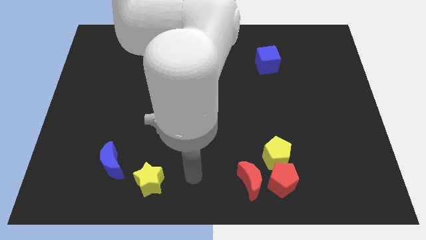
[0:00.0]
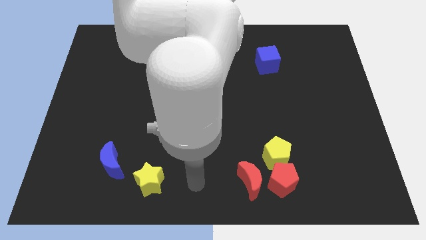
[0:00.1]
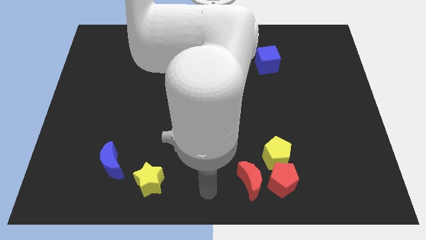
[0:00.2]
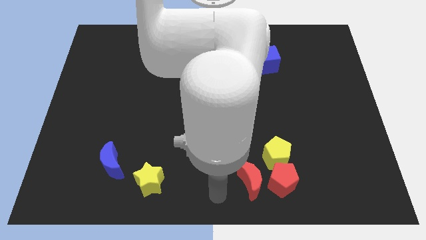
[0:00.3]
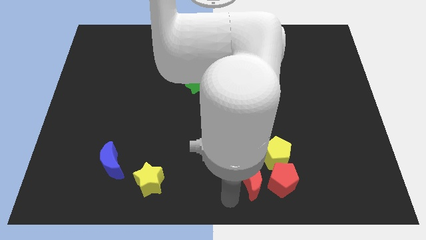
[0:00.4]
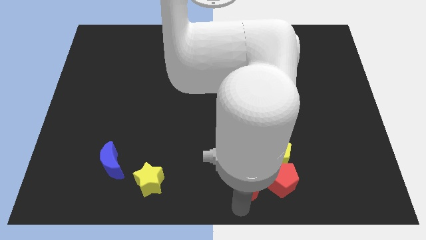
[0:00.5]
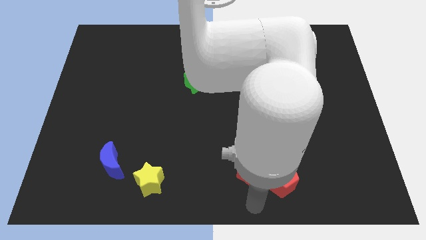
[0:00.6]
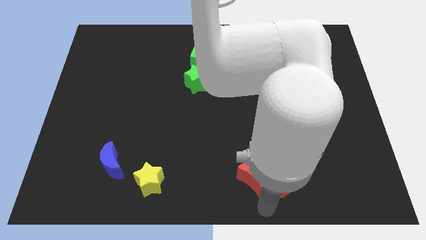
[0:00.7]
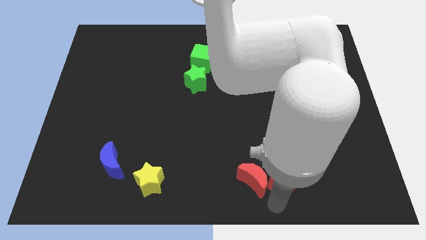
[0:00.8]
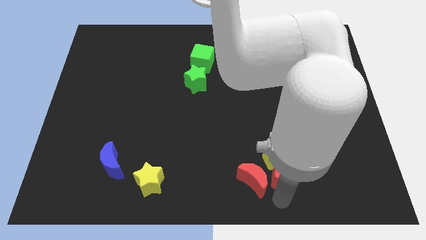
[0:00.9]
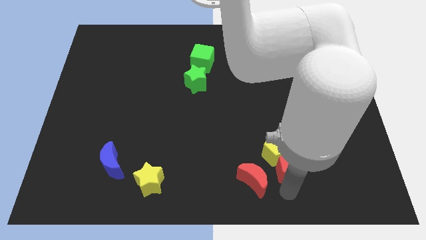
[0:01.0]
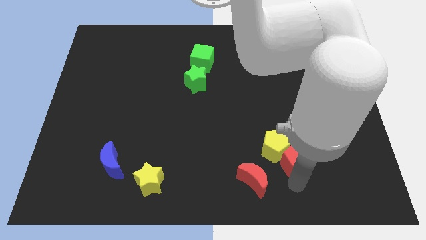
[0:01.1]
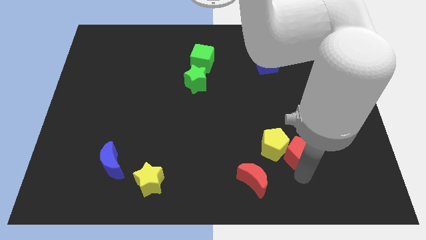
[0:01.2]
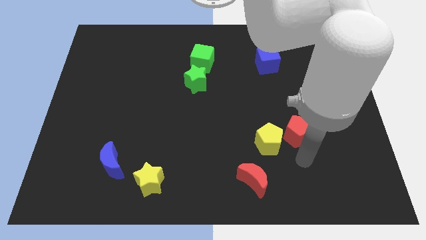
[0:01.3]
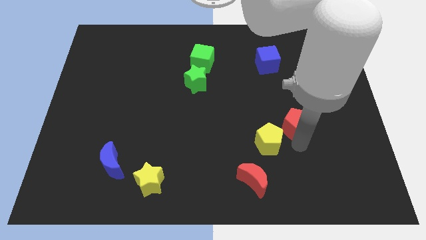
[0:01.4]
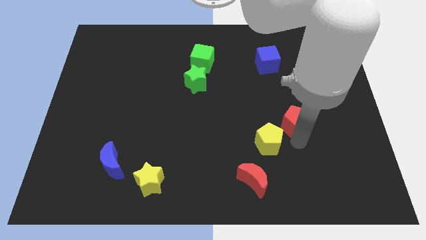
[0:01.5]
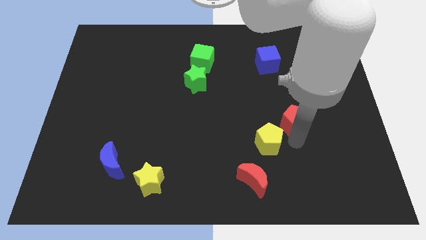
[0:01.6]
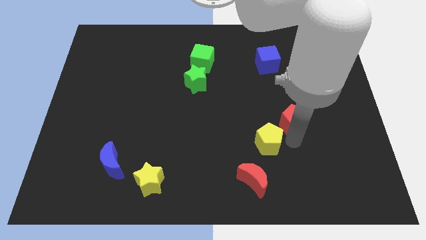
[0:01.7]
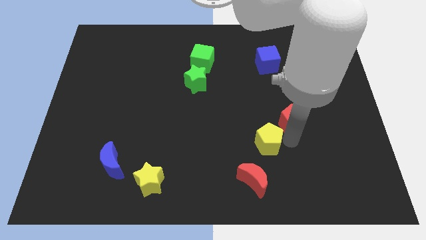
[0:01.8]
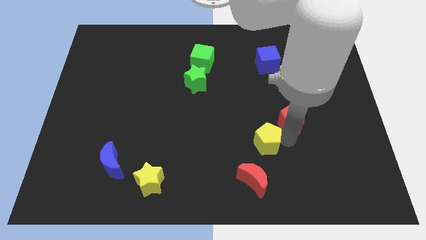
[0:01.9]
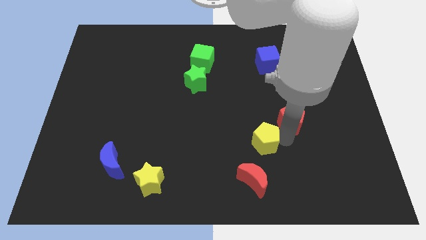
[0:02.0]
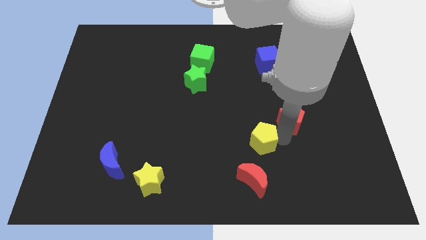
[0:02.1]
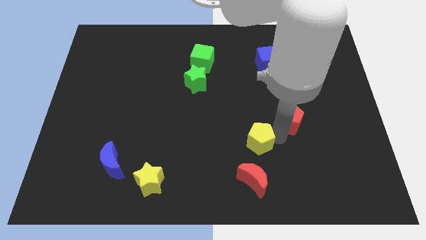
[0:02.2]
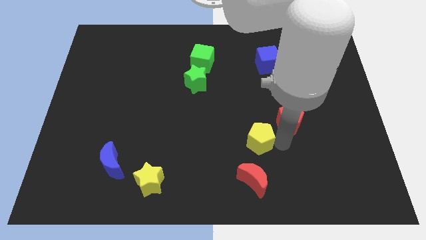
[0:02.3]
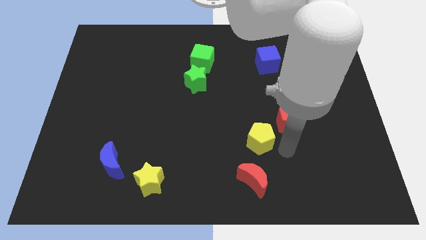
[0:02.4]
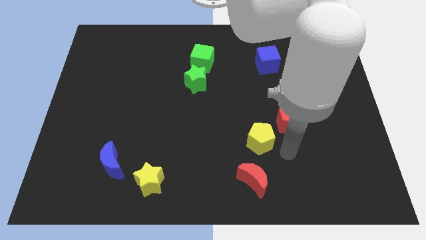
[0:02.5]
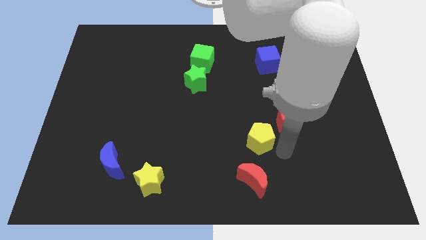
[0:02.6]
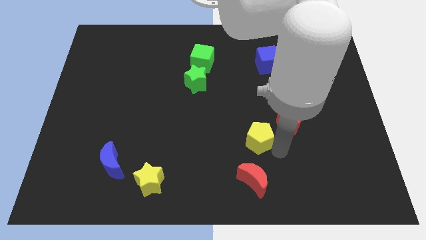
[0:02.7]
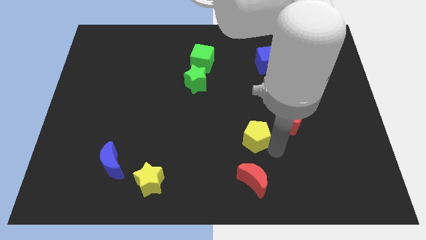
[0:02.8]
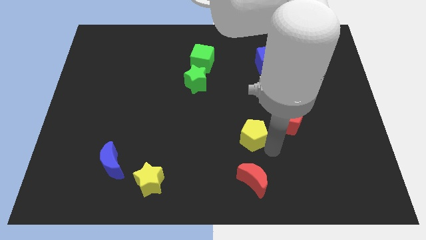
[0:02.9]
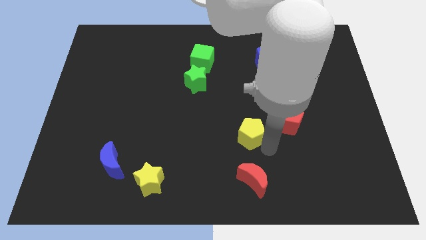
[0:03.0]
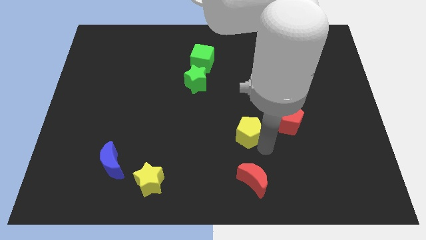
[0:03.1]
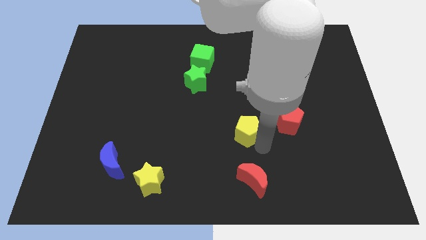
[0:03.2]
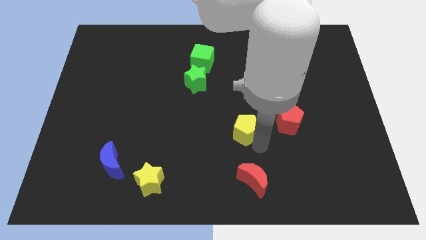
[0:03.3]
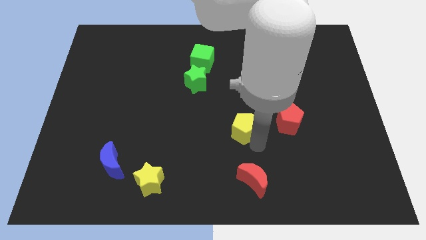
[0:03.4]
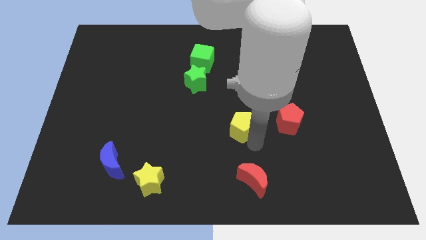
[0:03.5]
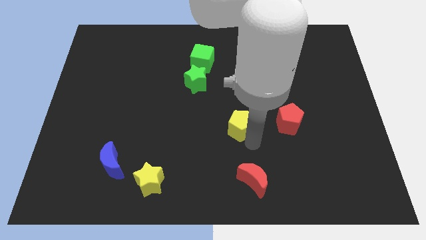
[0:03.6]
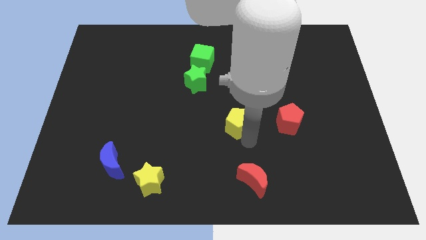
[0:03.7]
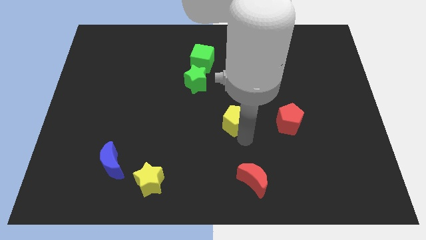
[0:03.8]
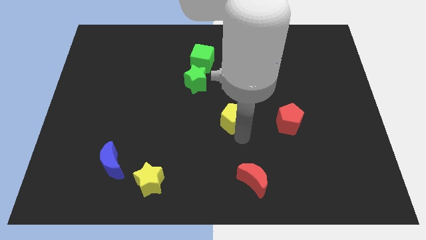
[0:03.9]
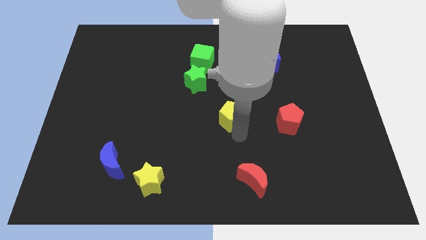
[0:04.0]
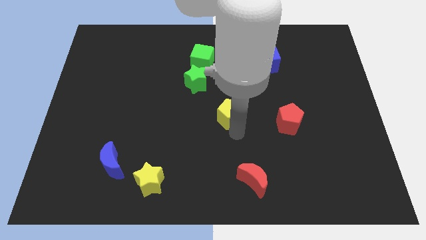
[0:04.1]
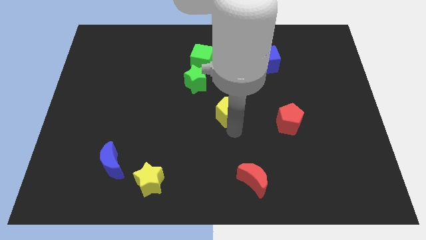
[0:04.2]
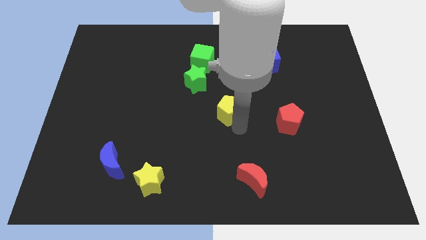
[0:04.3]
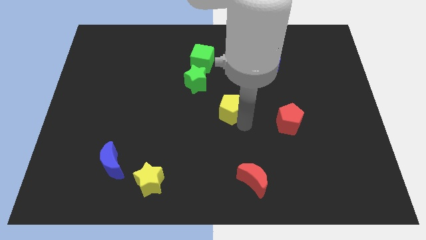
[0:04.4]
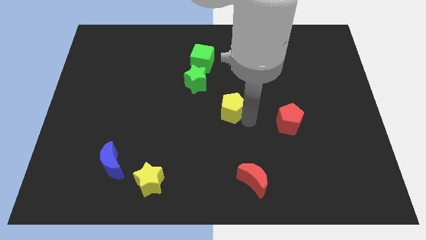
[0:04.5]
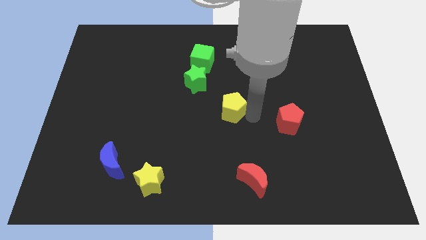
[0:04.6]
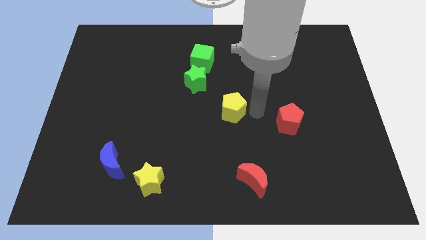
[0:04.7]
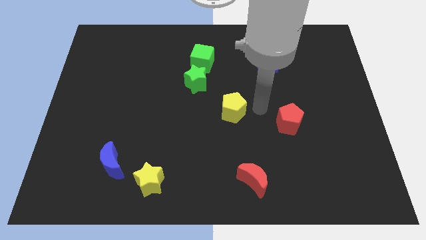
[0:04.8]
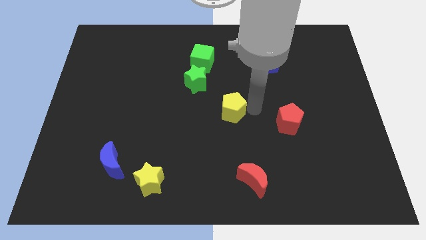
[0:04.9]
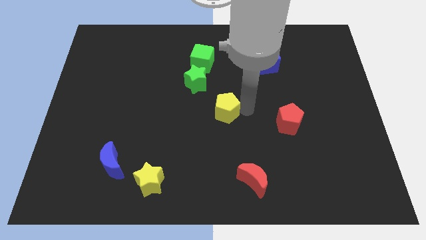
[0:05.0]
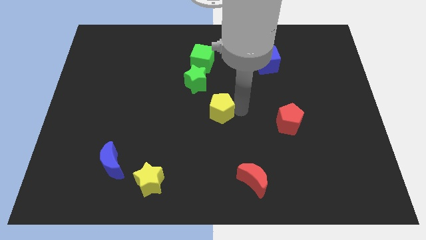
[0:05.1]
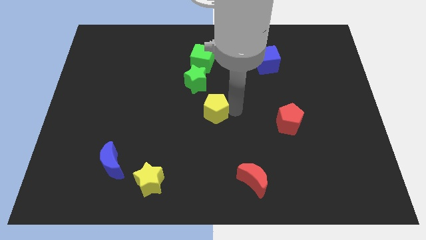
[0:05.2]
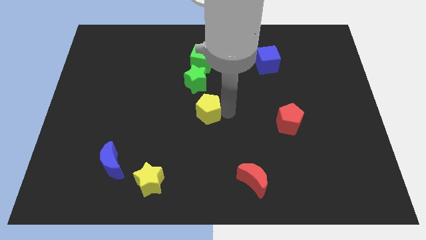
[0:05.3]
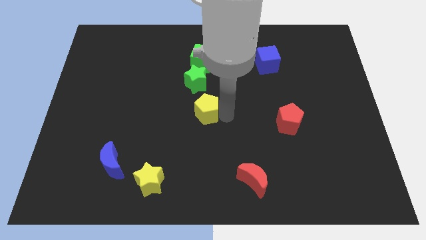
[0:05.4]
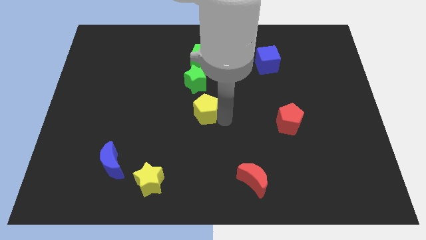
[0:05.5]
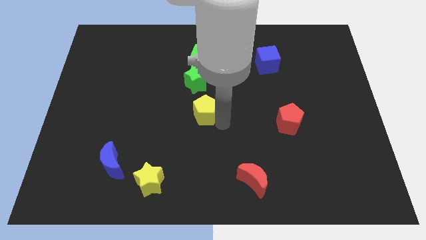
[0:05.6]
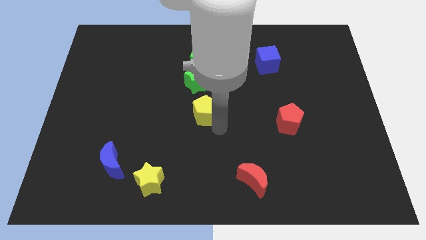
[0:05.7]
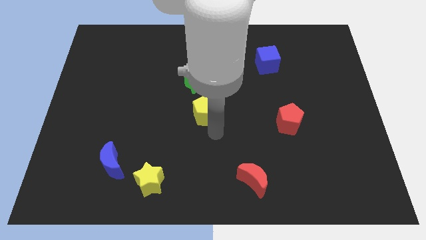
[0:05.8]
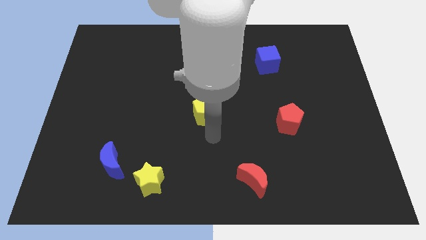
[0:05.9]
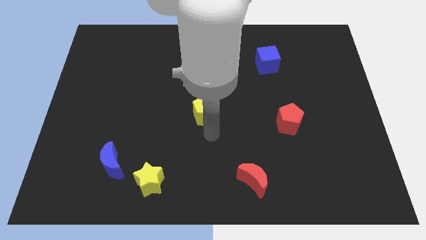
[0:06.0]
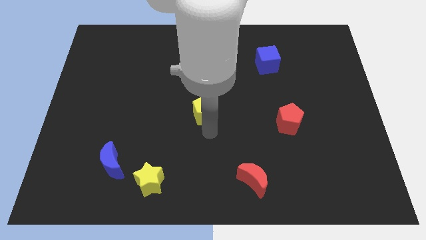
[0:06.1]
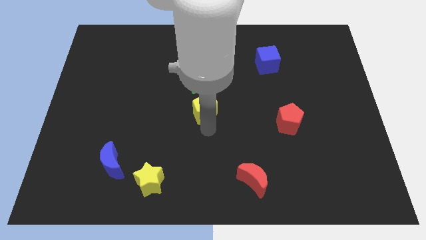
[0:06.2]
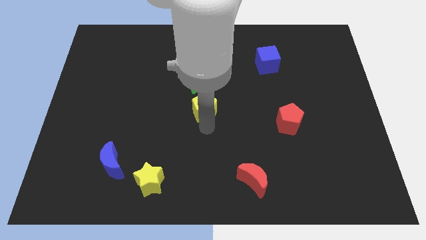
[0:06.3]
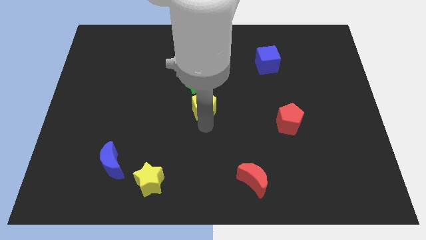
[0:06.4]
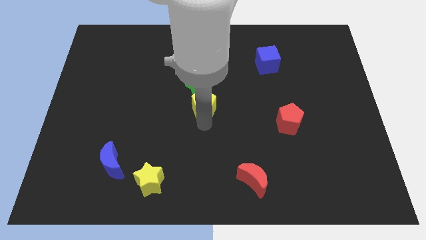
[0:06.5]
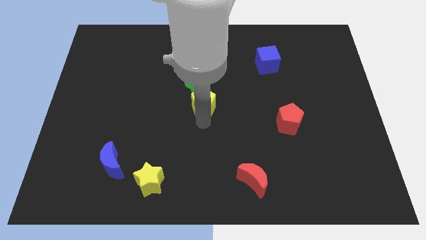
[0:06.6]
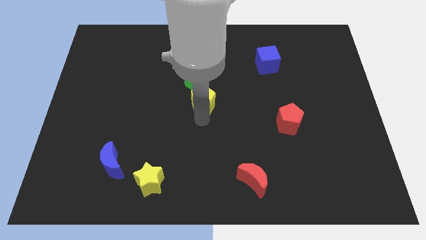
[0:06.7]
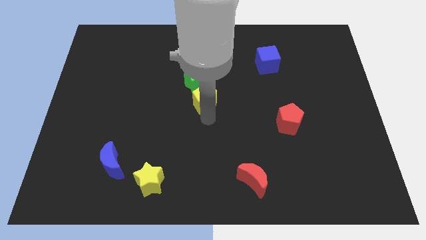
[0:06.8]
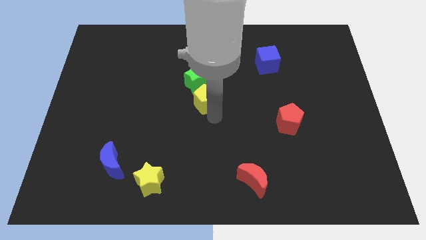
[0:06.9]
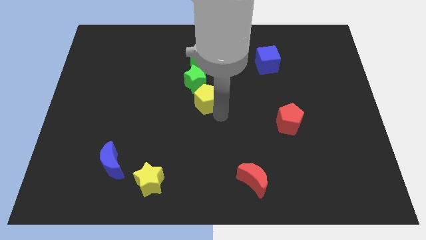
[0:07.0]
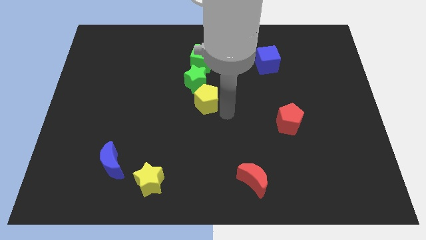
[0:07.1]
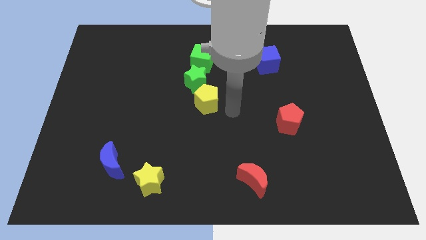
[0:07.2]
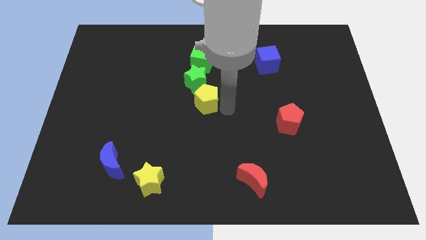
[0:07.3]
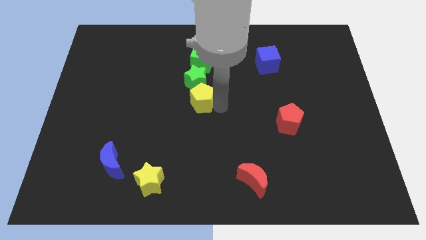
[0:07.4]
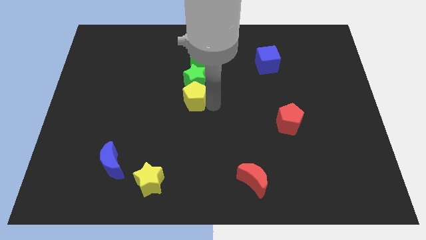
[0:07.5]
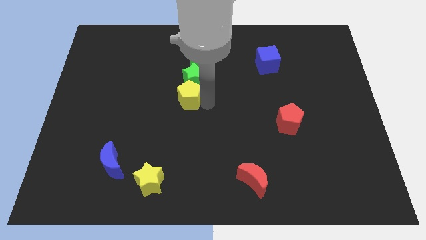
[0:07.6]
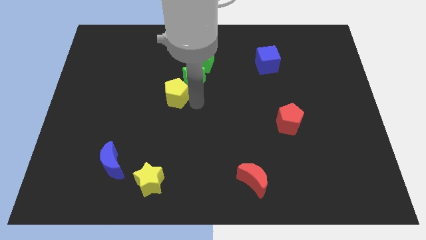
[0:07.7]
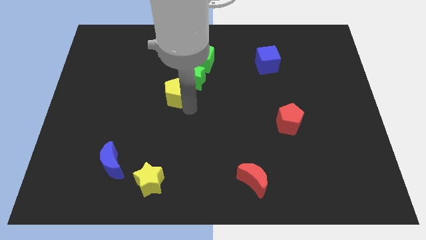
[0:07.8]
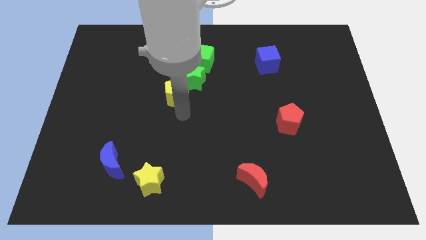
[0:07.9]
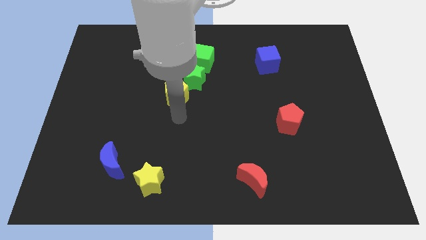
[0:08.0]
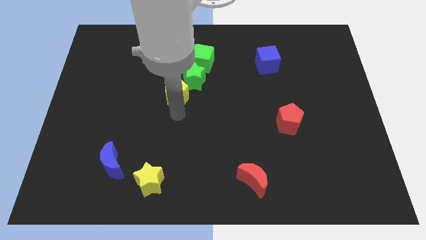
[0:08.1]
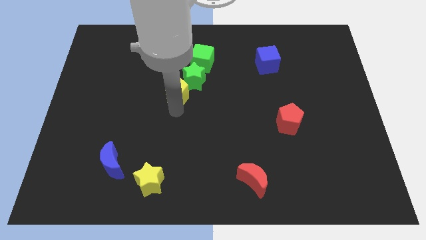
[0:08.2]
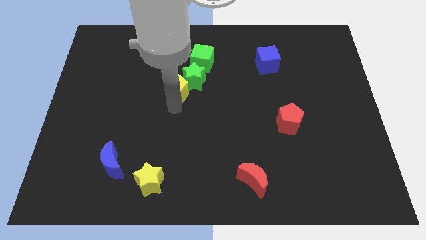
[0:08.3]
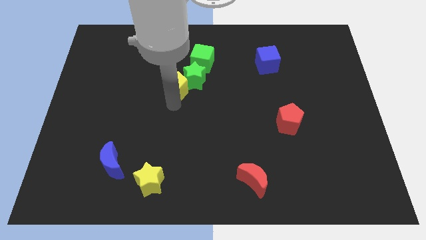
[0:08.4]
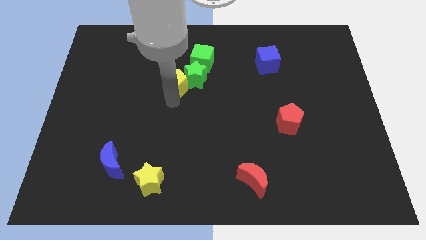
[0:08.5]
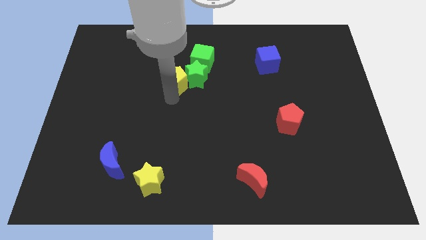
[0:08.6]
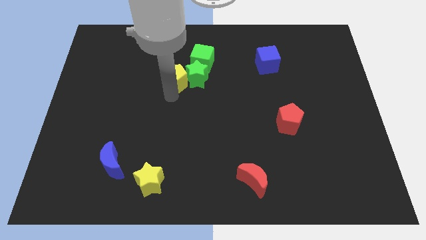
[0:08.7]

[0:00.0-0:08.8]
move the yellow pentagon to the top left side of the green star
